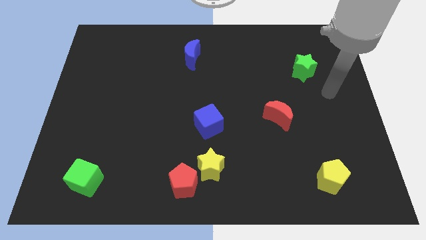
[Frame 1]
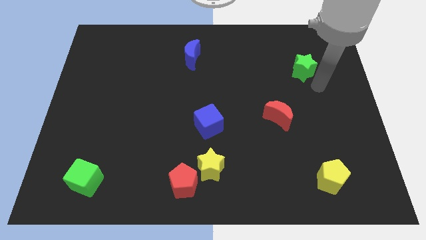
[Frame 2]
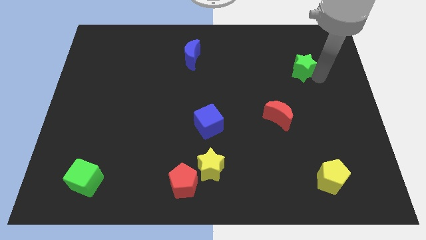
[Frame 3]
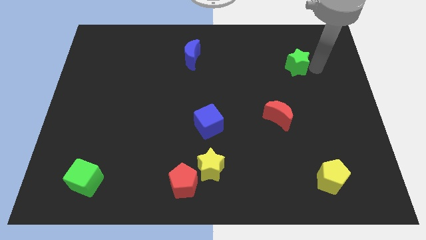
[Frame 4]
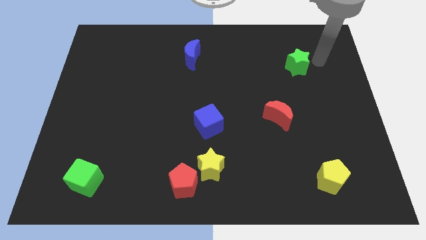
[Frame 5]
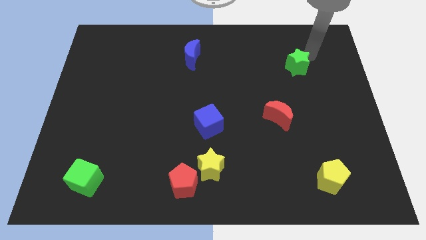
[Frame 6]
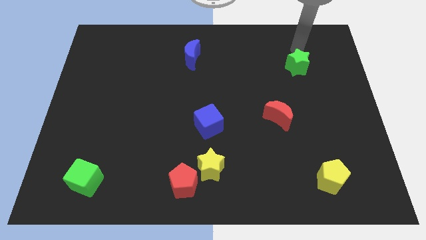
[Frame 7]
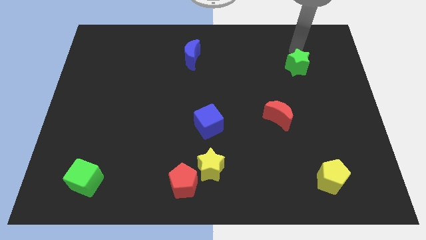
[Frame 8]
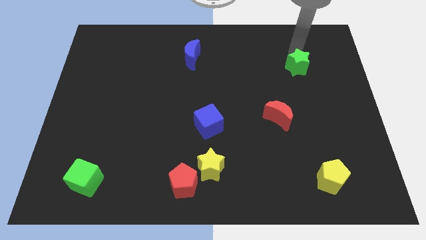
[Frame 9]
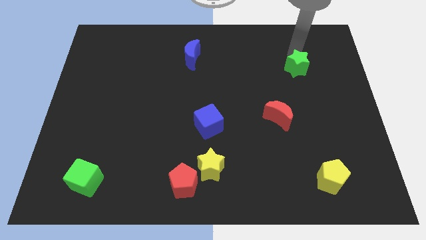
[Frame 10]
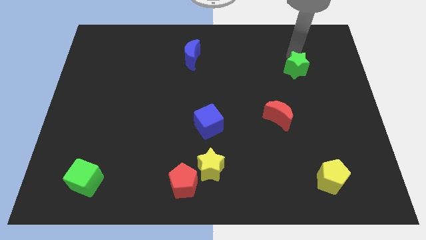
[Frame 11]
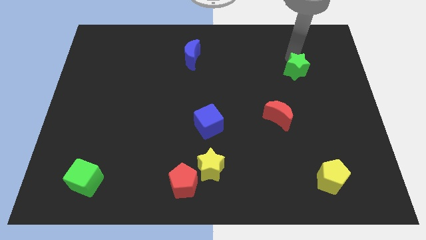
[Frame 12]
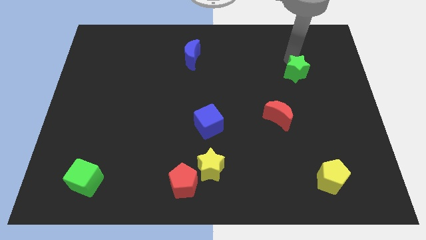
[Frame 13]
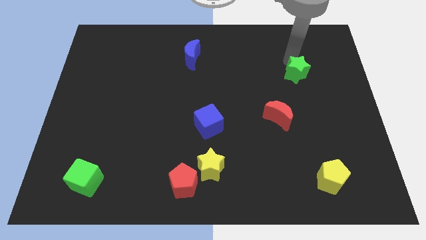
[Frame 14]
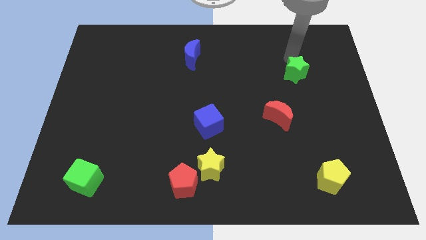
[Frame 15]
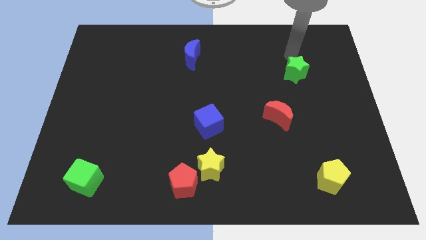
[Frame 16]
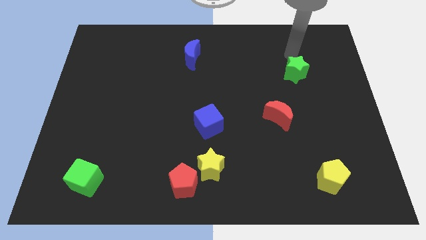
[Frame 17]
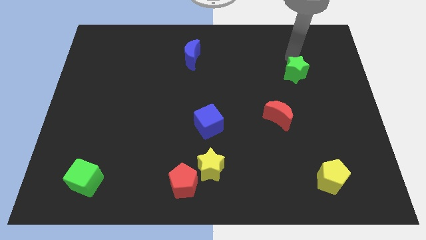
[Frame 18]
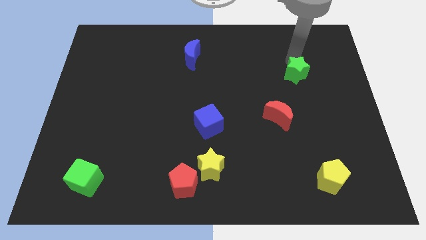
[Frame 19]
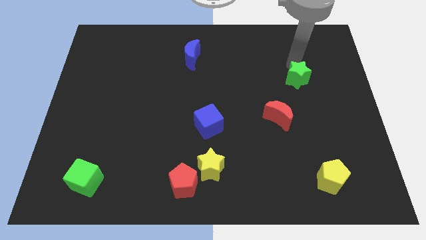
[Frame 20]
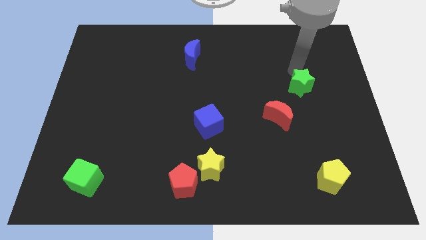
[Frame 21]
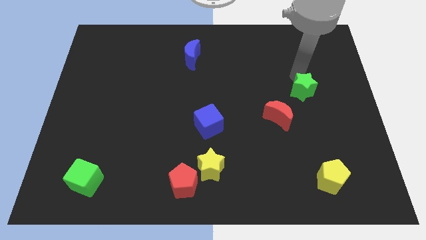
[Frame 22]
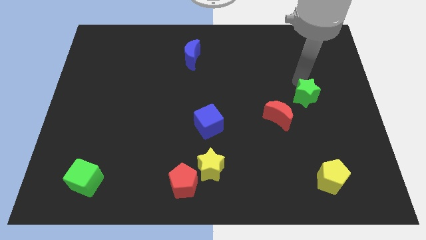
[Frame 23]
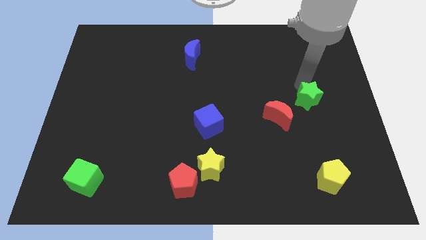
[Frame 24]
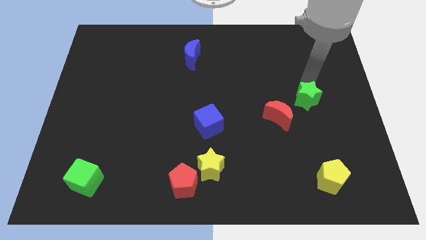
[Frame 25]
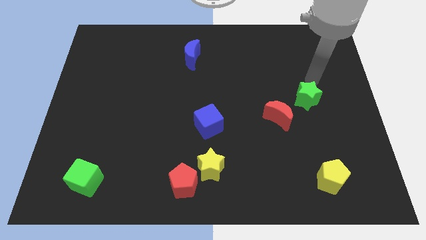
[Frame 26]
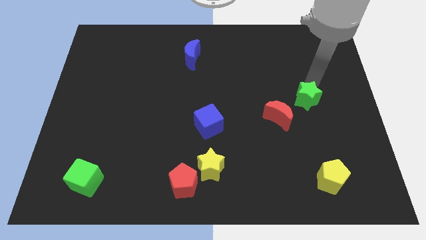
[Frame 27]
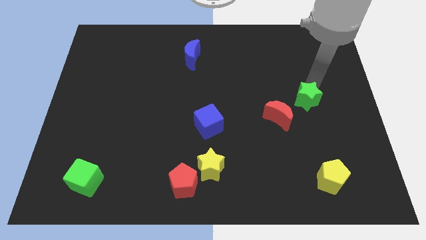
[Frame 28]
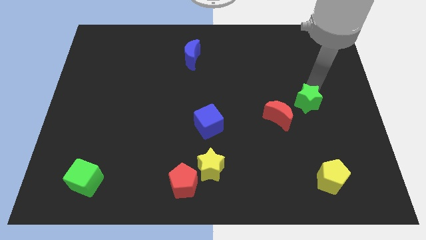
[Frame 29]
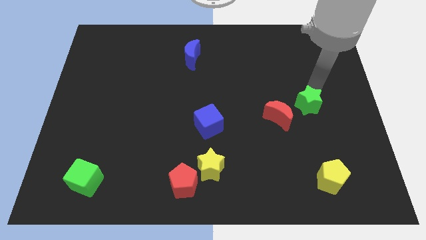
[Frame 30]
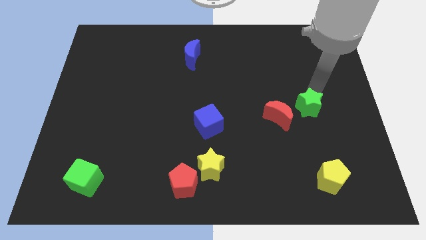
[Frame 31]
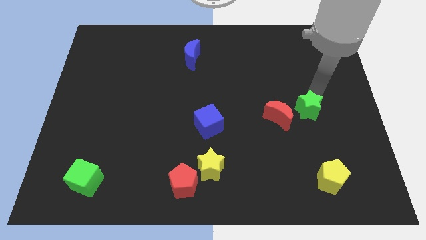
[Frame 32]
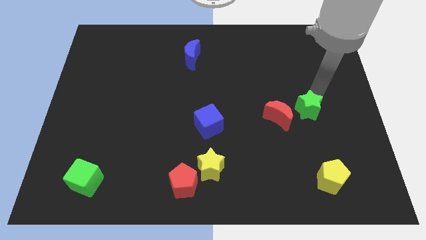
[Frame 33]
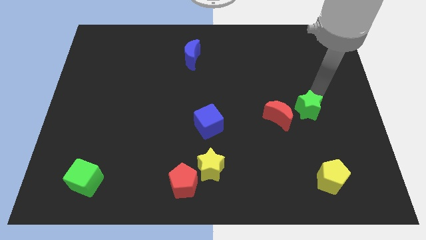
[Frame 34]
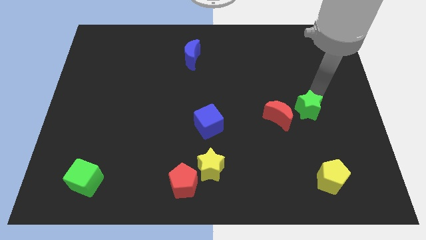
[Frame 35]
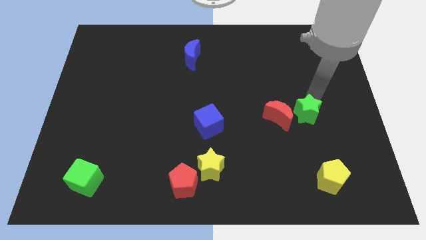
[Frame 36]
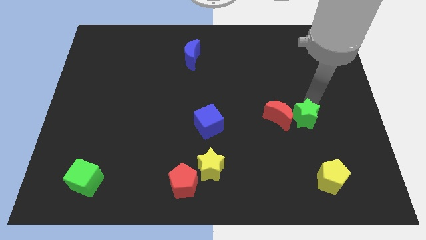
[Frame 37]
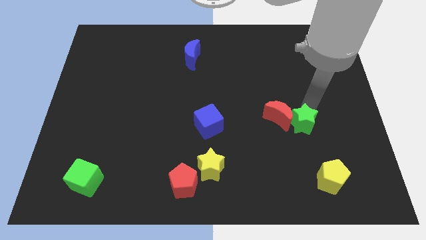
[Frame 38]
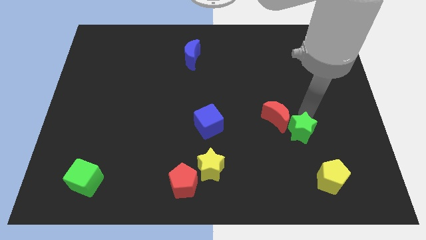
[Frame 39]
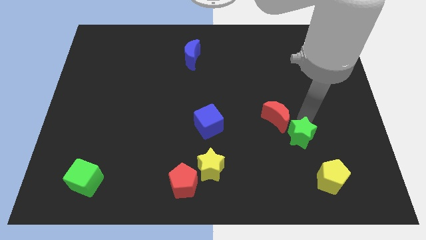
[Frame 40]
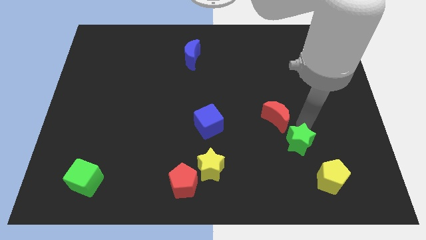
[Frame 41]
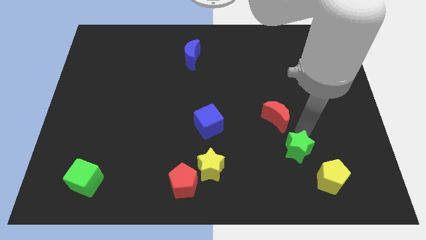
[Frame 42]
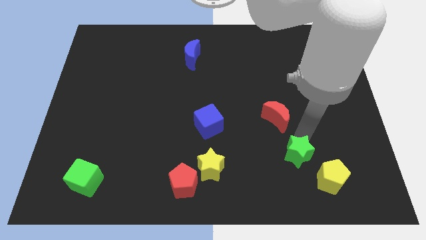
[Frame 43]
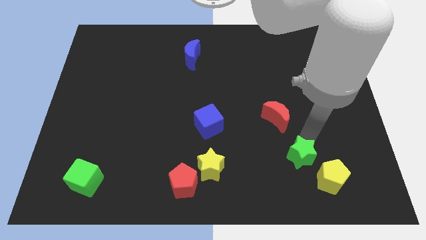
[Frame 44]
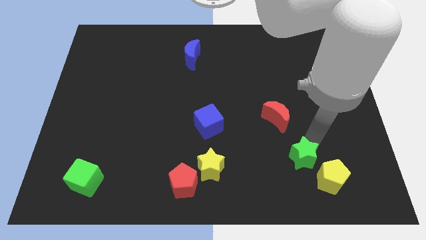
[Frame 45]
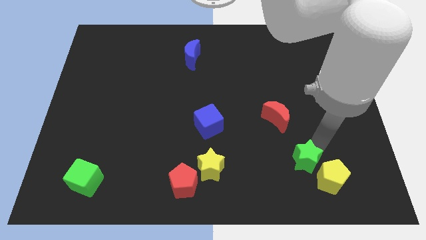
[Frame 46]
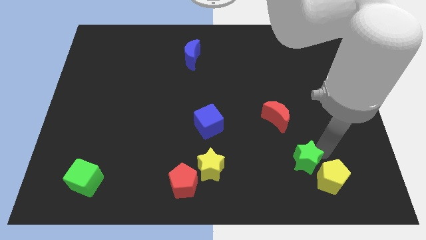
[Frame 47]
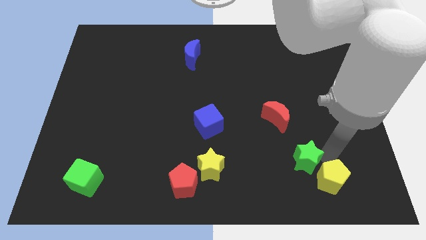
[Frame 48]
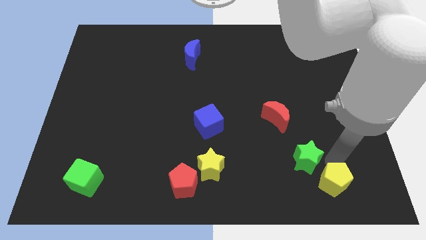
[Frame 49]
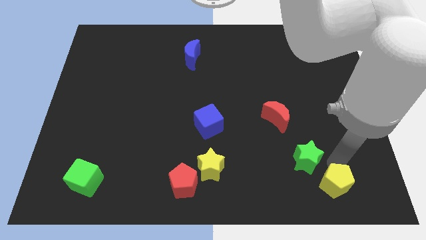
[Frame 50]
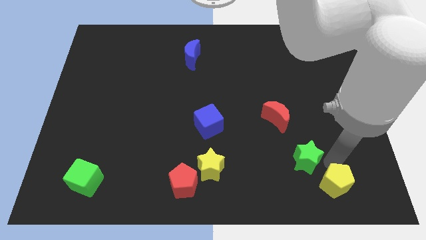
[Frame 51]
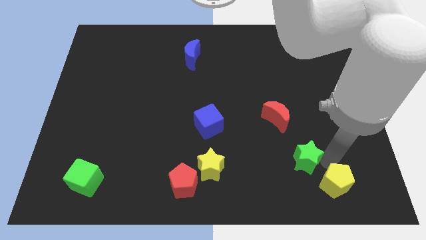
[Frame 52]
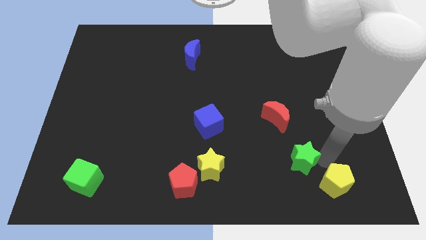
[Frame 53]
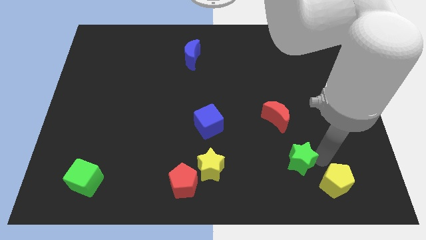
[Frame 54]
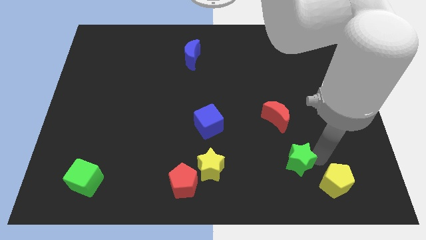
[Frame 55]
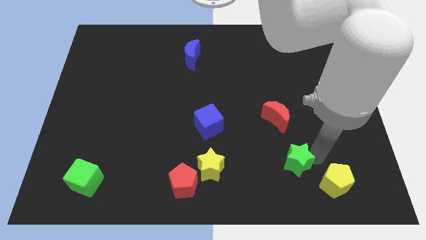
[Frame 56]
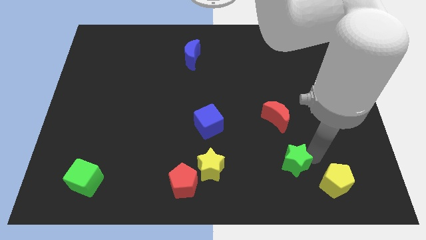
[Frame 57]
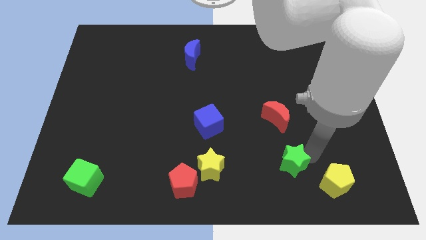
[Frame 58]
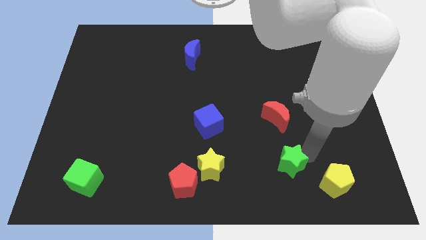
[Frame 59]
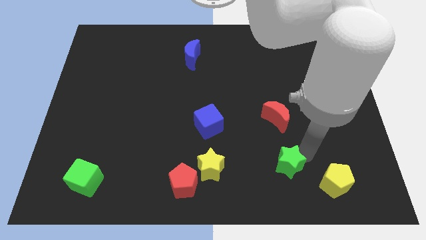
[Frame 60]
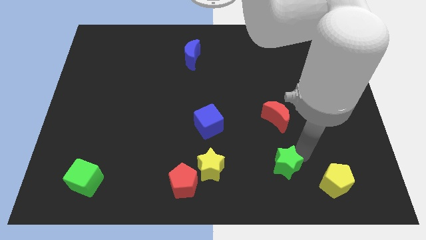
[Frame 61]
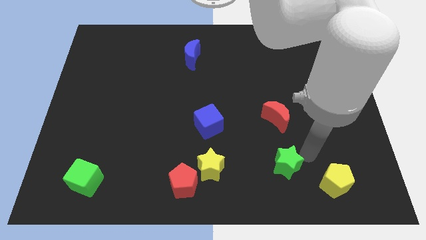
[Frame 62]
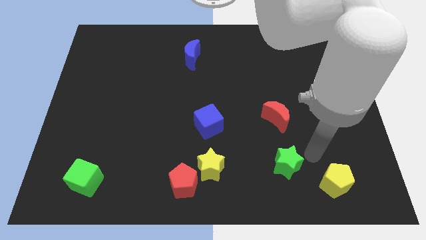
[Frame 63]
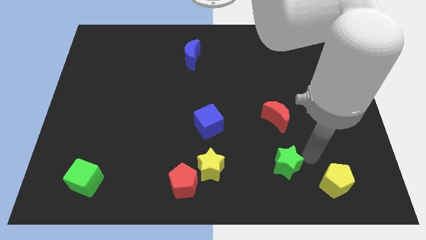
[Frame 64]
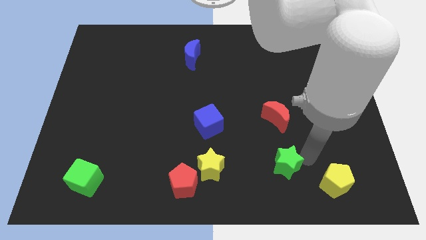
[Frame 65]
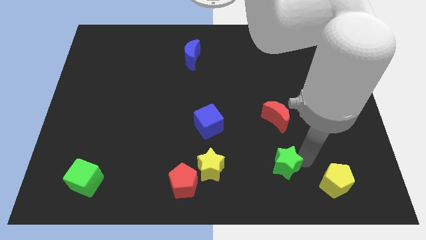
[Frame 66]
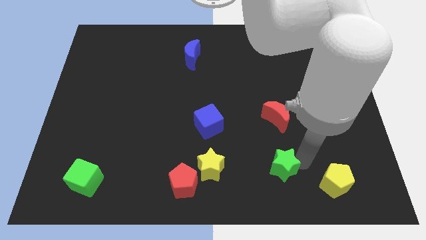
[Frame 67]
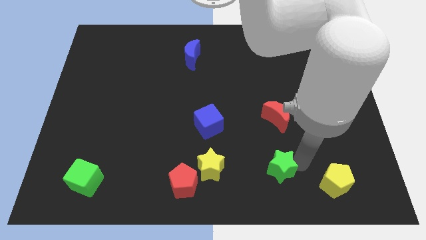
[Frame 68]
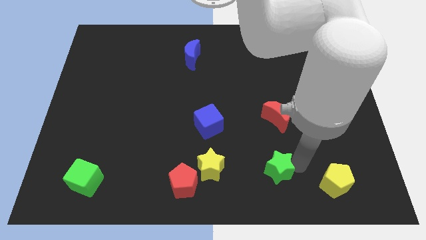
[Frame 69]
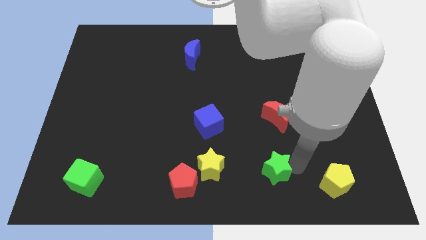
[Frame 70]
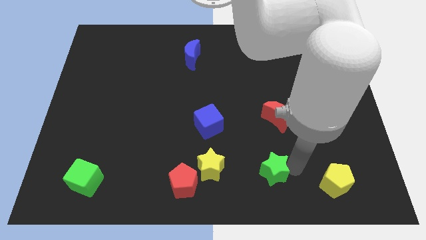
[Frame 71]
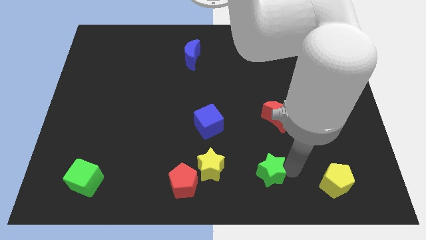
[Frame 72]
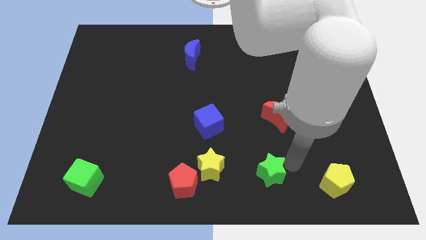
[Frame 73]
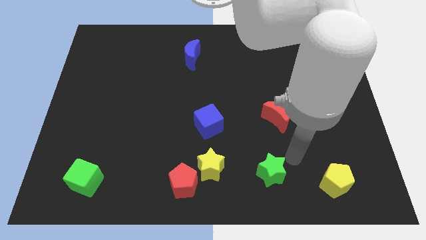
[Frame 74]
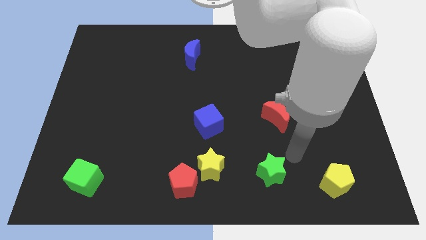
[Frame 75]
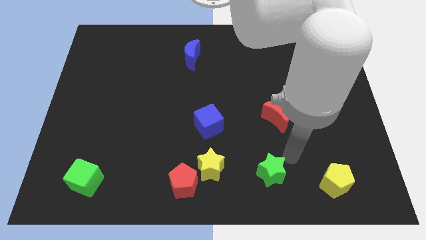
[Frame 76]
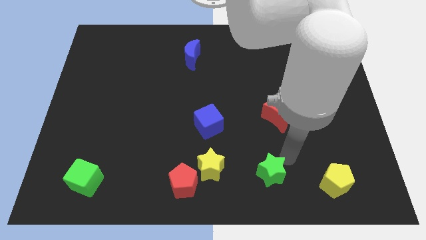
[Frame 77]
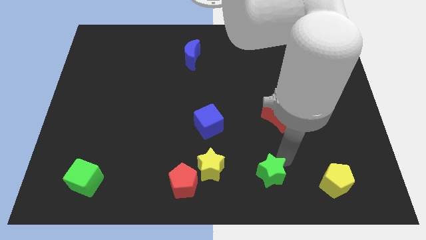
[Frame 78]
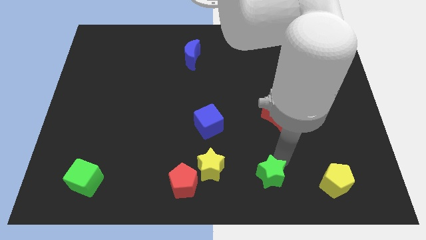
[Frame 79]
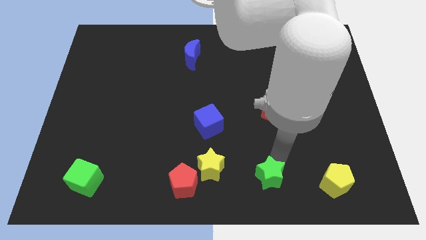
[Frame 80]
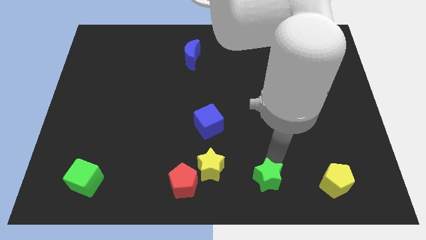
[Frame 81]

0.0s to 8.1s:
put the green star to the bottom
